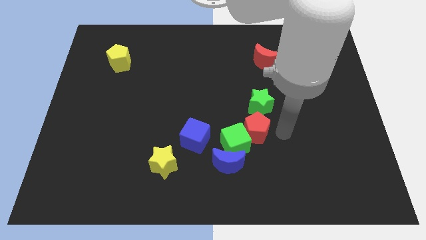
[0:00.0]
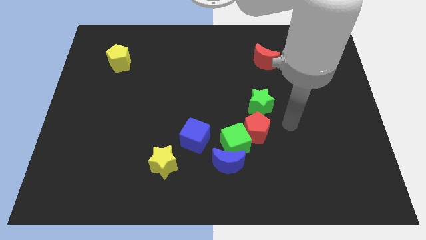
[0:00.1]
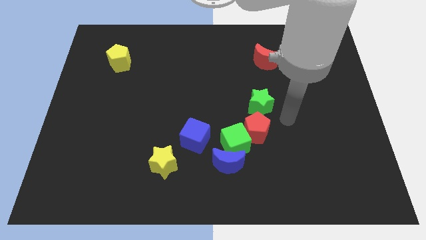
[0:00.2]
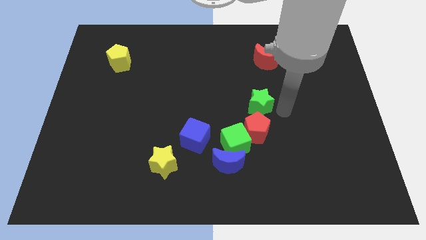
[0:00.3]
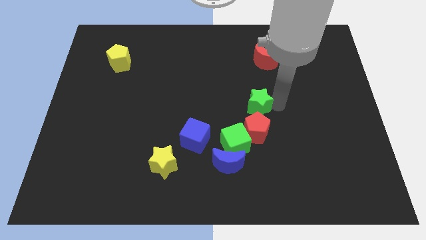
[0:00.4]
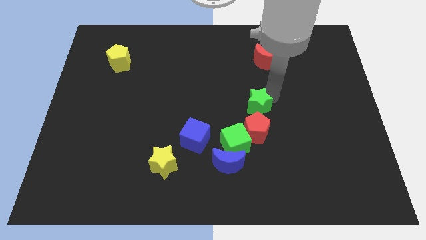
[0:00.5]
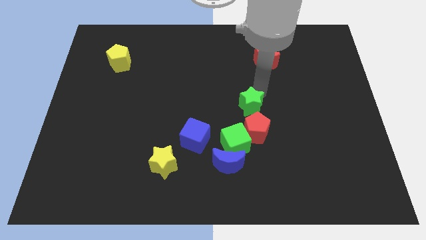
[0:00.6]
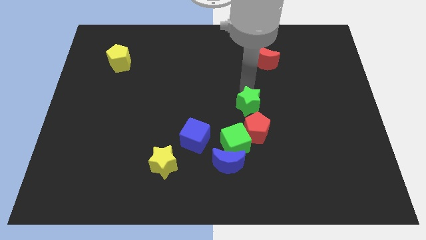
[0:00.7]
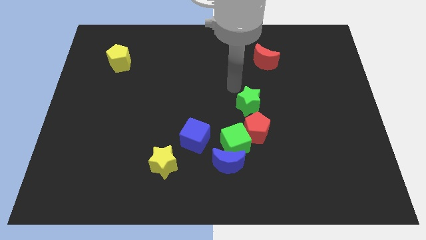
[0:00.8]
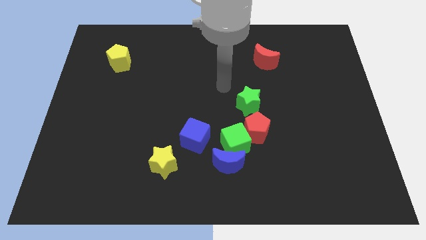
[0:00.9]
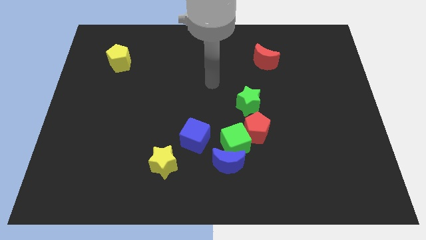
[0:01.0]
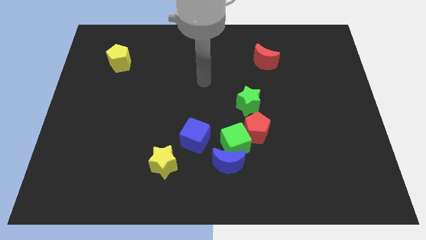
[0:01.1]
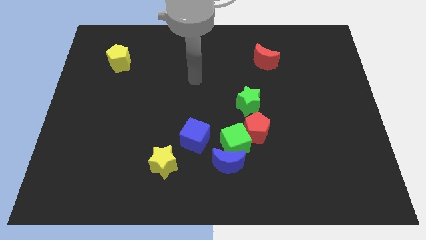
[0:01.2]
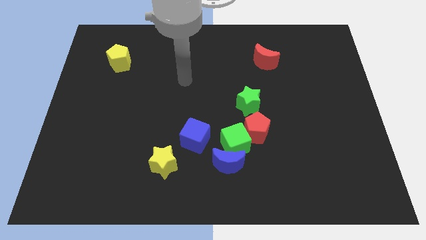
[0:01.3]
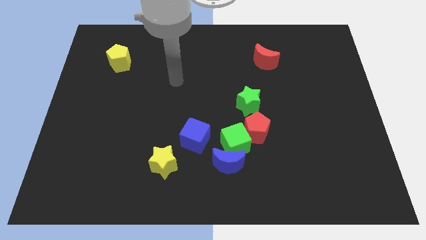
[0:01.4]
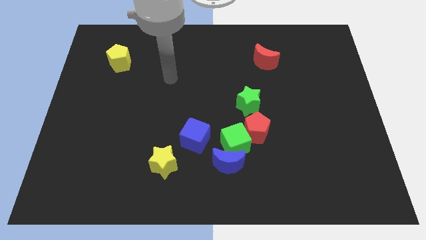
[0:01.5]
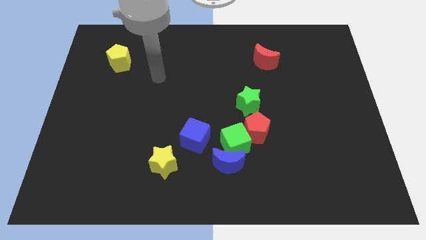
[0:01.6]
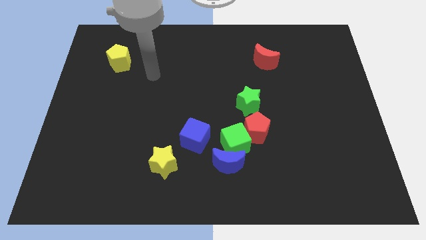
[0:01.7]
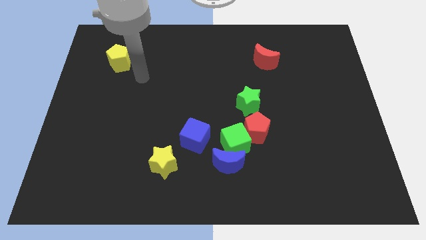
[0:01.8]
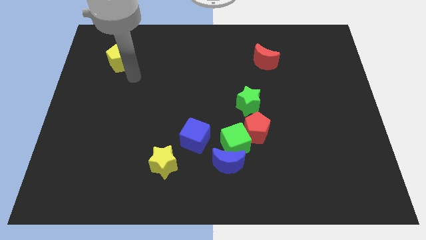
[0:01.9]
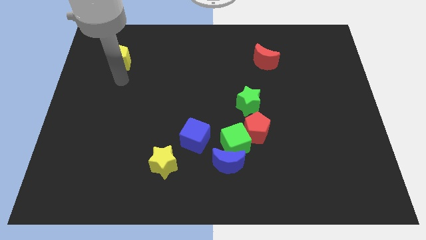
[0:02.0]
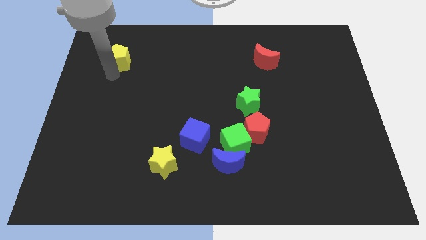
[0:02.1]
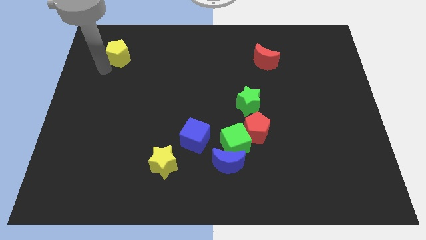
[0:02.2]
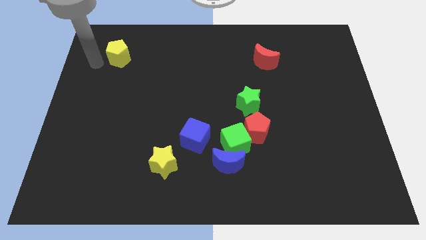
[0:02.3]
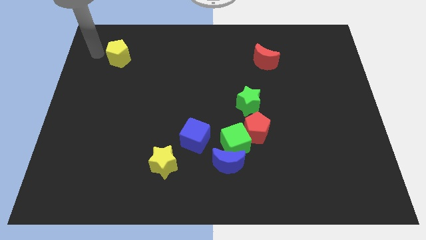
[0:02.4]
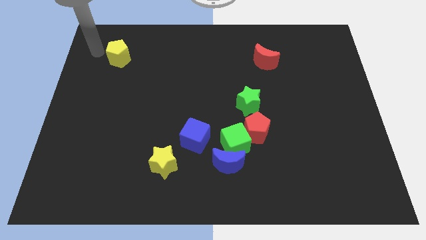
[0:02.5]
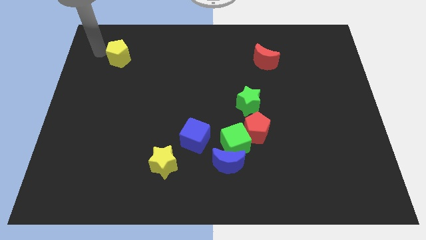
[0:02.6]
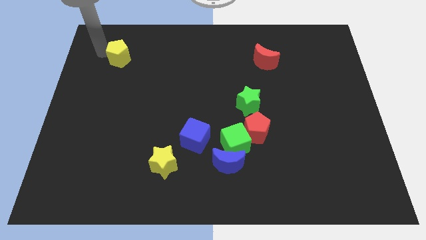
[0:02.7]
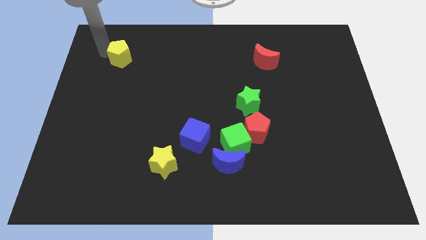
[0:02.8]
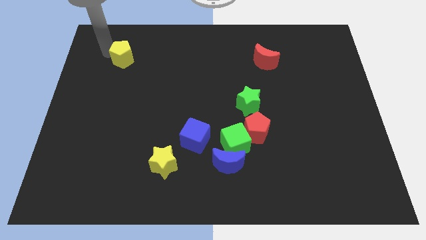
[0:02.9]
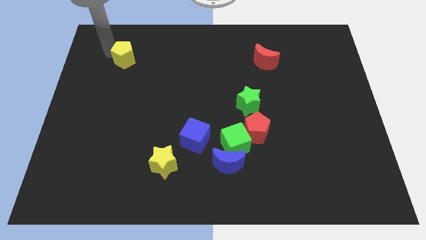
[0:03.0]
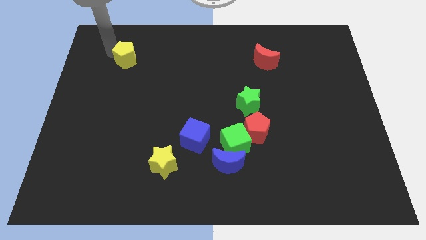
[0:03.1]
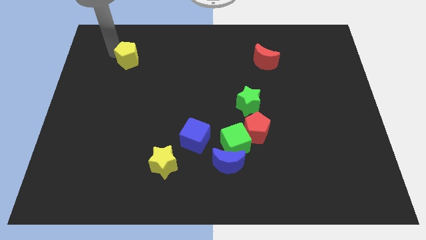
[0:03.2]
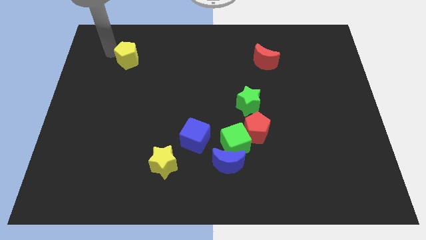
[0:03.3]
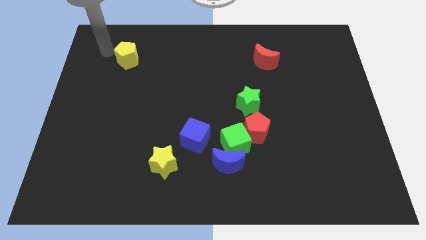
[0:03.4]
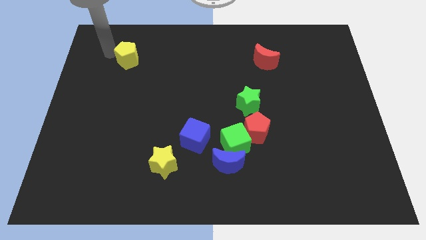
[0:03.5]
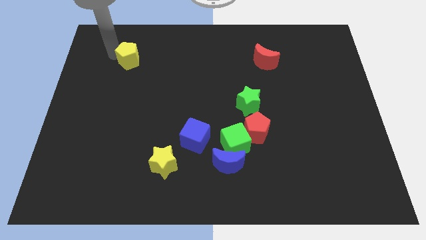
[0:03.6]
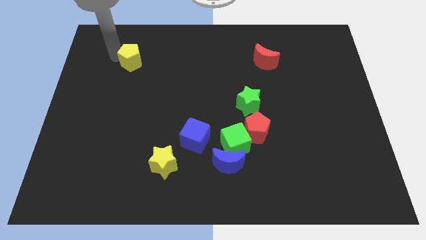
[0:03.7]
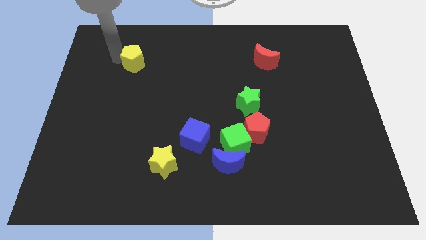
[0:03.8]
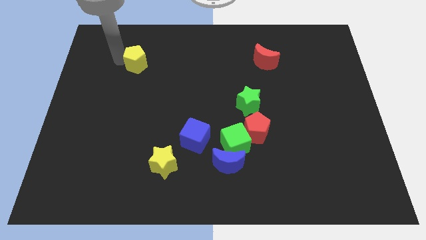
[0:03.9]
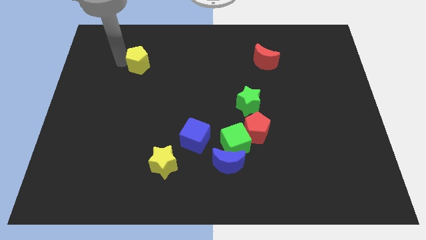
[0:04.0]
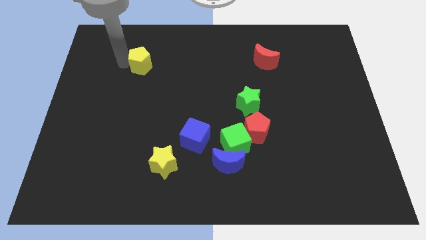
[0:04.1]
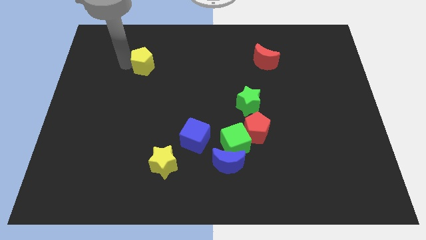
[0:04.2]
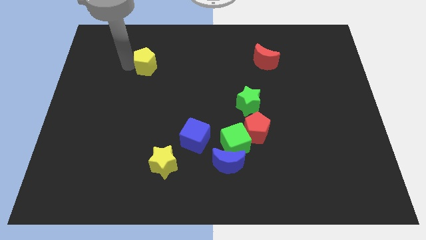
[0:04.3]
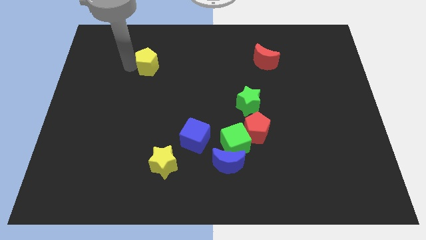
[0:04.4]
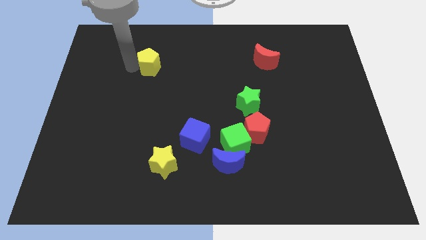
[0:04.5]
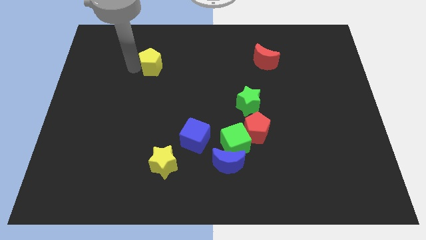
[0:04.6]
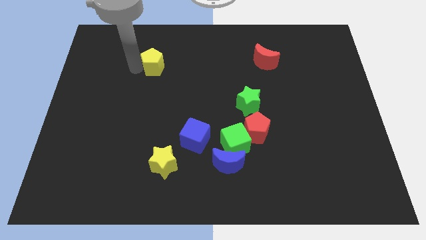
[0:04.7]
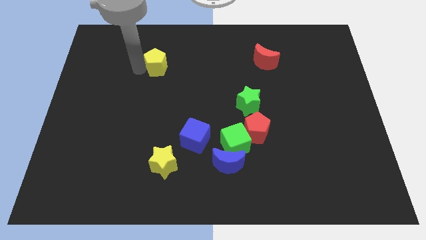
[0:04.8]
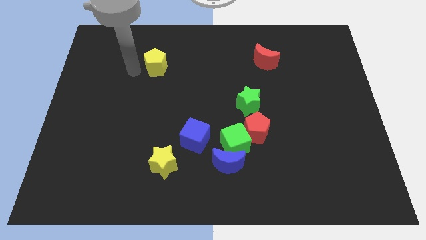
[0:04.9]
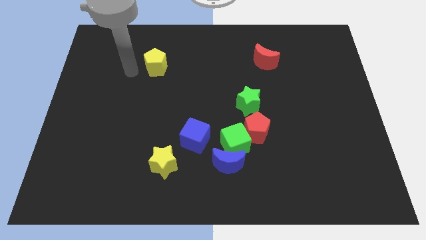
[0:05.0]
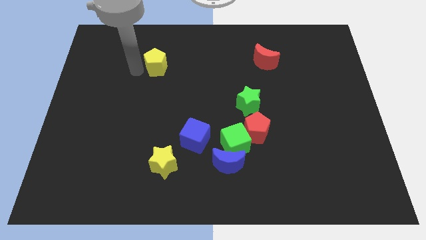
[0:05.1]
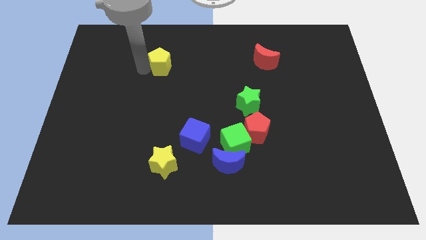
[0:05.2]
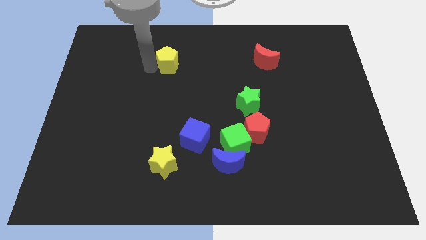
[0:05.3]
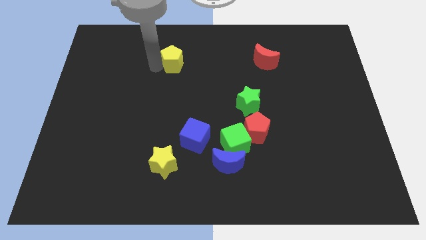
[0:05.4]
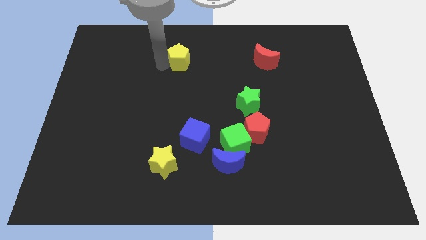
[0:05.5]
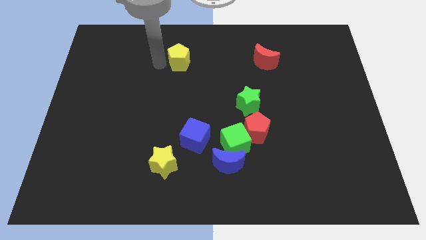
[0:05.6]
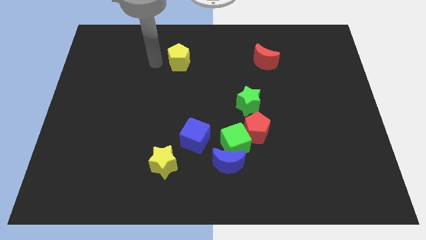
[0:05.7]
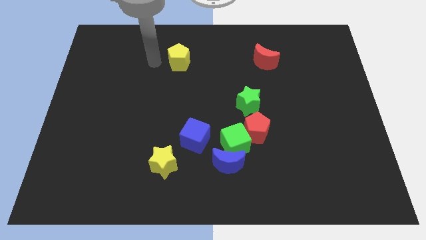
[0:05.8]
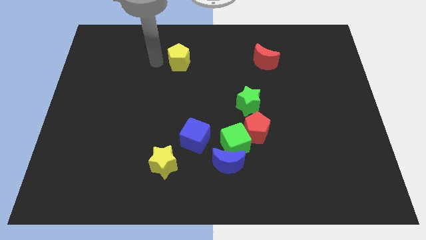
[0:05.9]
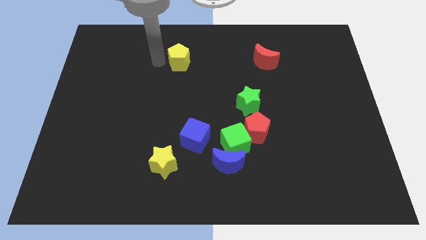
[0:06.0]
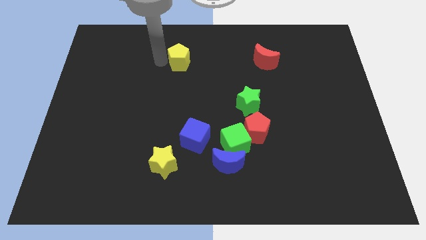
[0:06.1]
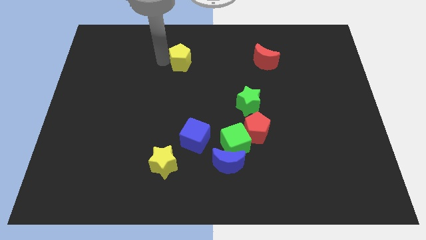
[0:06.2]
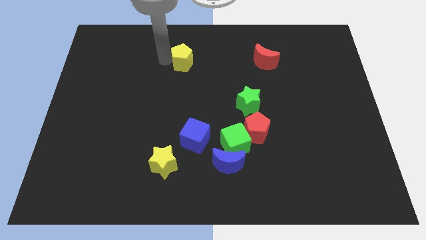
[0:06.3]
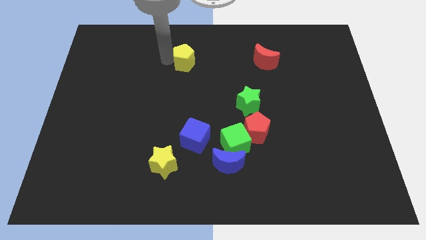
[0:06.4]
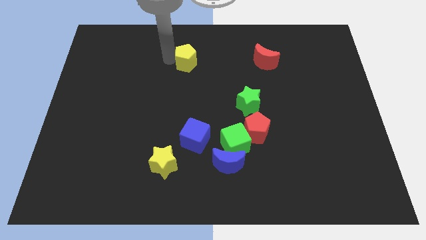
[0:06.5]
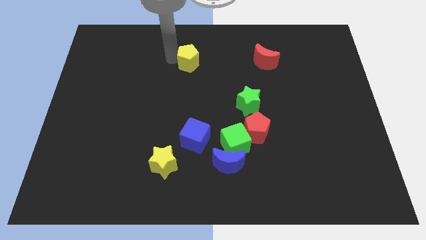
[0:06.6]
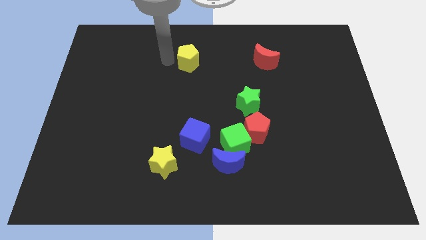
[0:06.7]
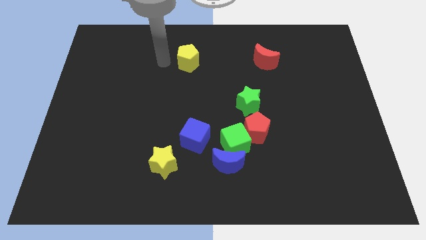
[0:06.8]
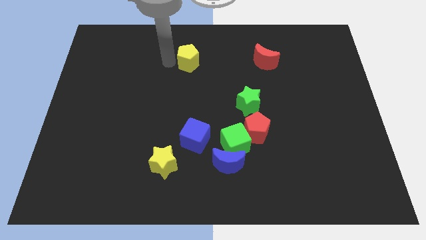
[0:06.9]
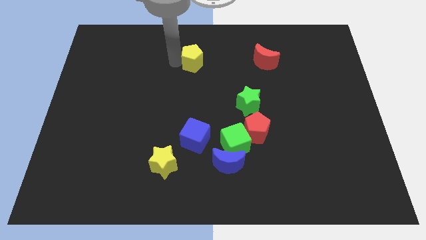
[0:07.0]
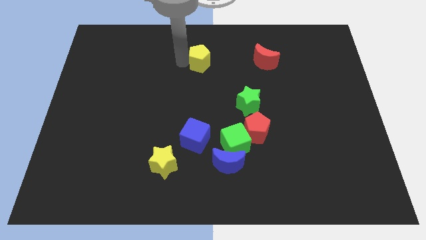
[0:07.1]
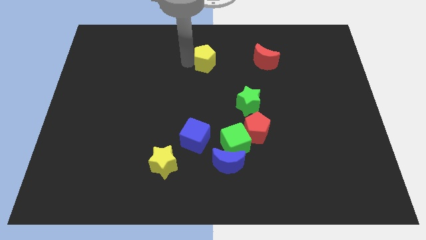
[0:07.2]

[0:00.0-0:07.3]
slide the yellow pentagon just left of the red moon
